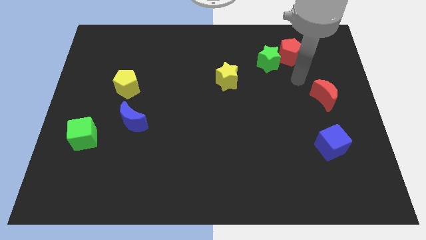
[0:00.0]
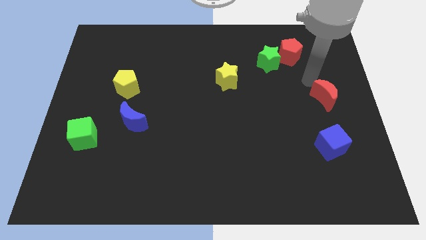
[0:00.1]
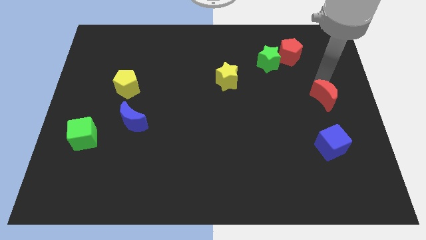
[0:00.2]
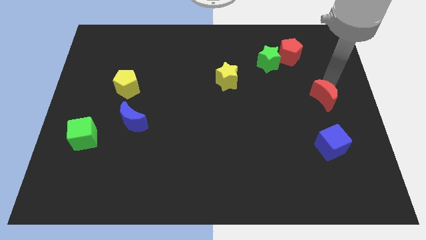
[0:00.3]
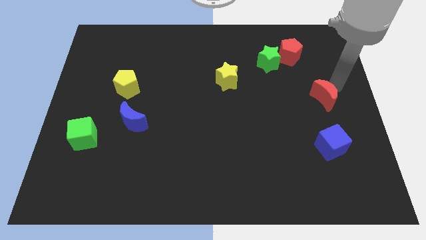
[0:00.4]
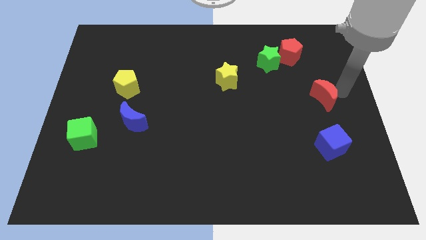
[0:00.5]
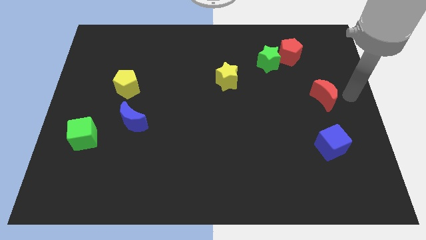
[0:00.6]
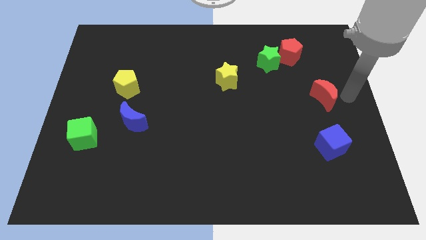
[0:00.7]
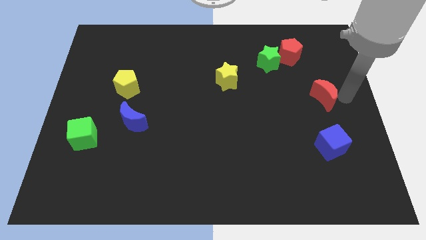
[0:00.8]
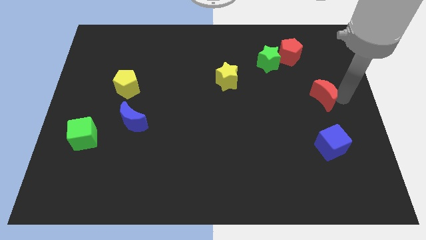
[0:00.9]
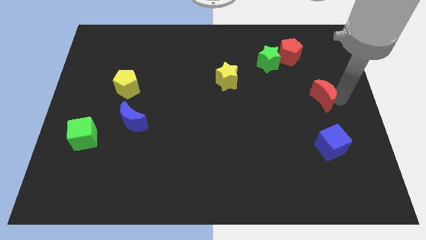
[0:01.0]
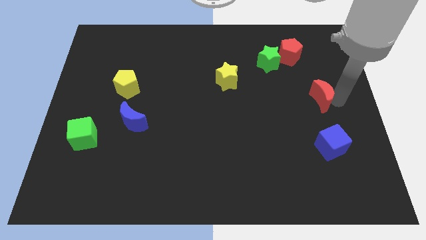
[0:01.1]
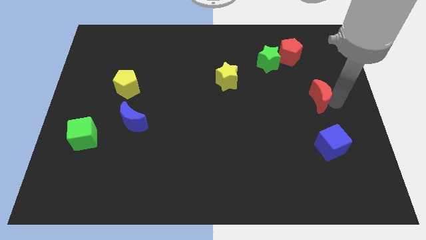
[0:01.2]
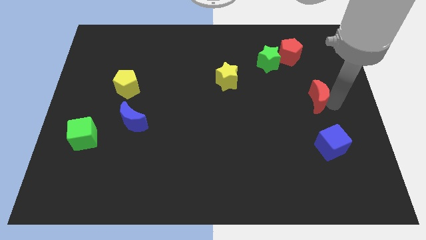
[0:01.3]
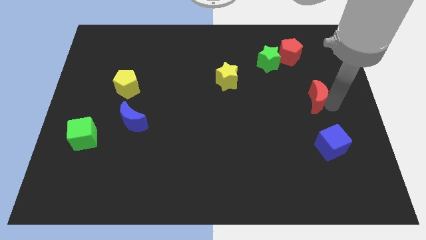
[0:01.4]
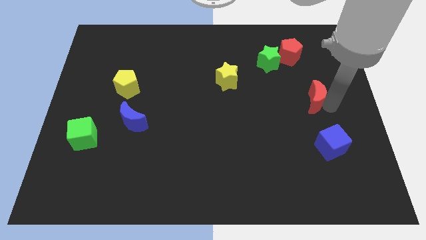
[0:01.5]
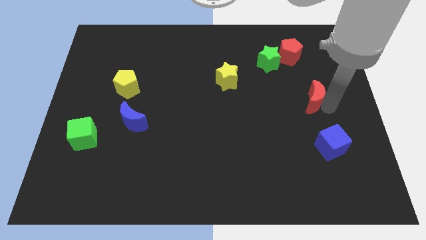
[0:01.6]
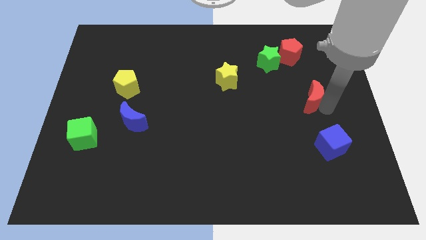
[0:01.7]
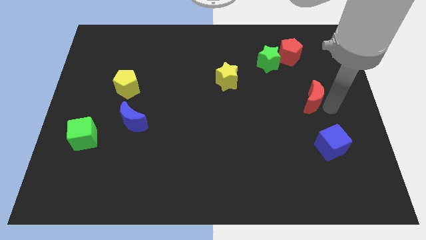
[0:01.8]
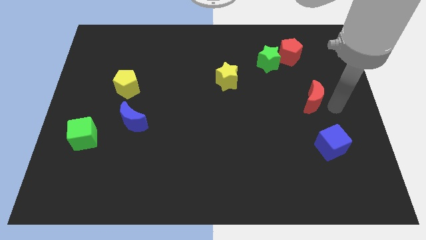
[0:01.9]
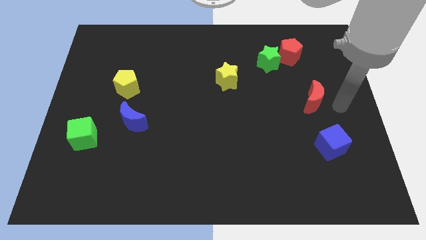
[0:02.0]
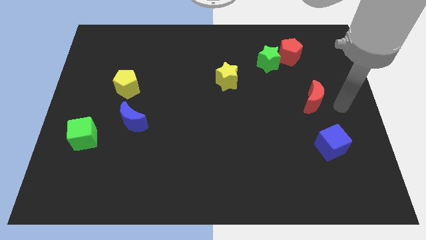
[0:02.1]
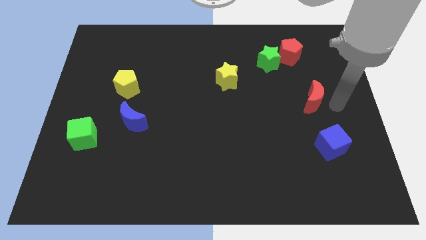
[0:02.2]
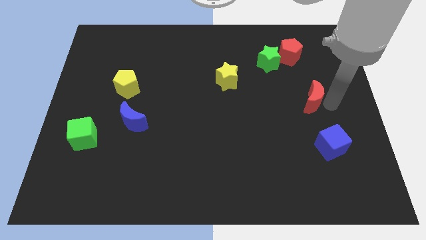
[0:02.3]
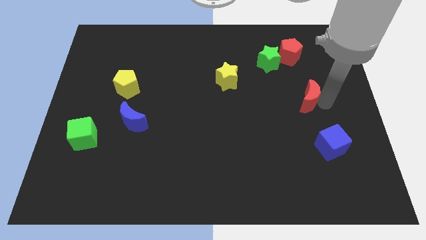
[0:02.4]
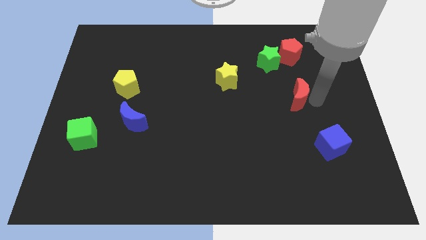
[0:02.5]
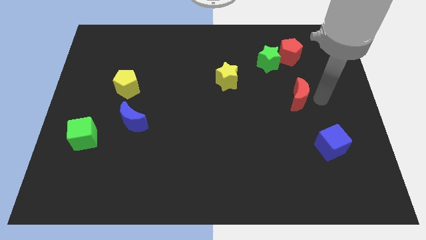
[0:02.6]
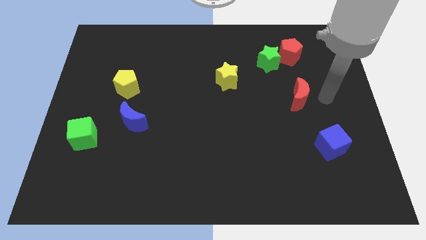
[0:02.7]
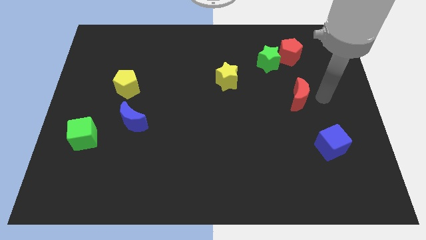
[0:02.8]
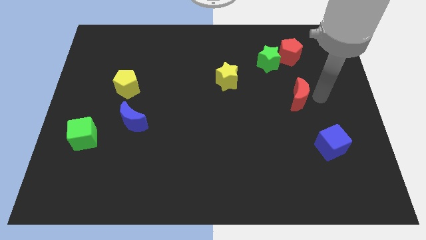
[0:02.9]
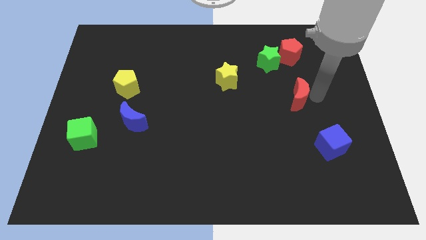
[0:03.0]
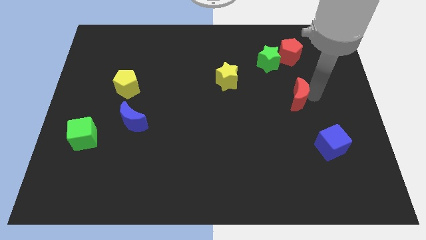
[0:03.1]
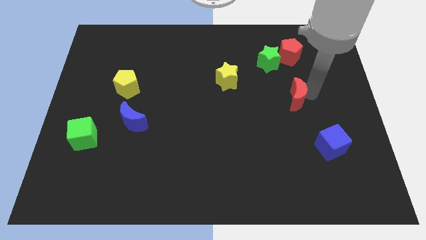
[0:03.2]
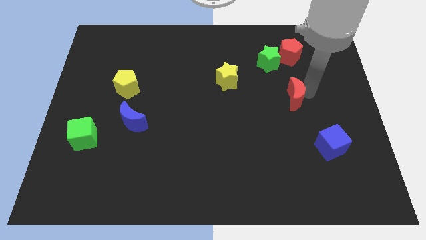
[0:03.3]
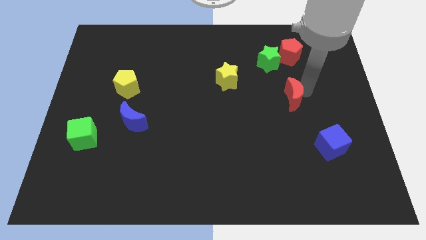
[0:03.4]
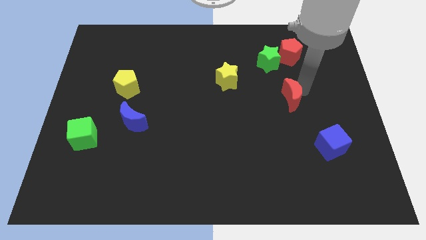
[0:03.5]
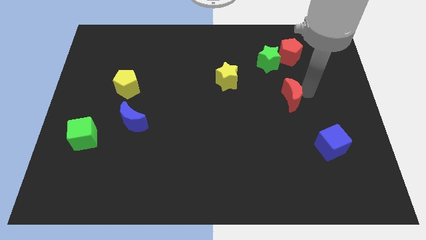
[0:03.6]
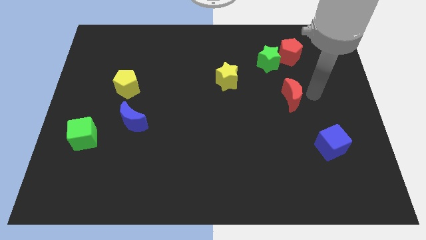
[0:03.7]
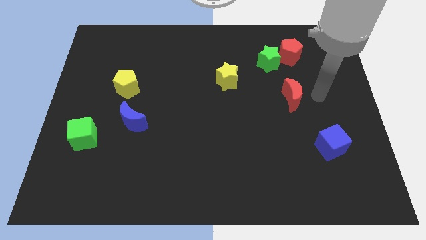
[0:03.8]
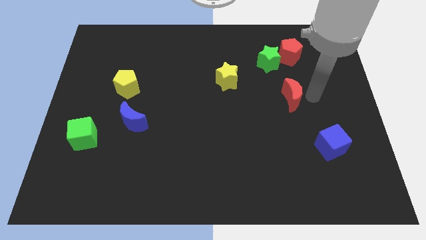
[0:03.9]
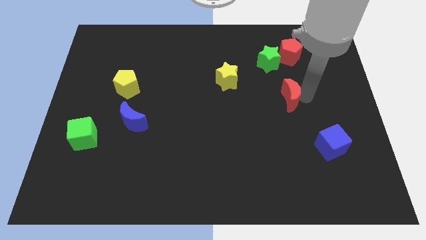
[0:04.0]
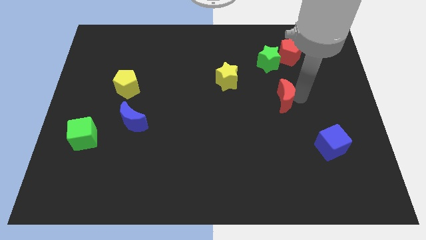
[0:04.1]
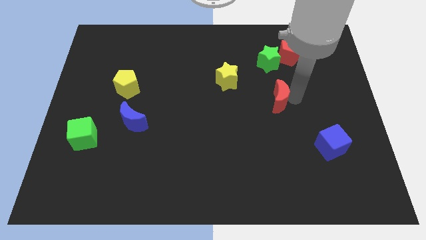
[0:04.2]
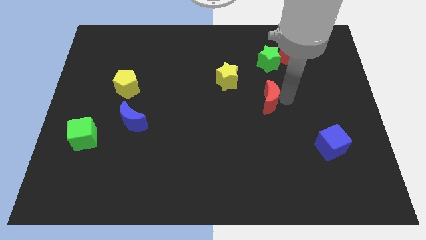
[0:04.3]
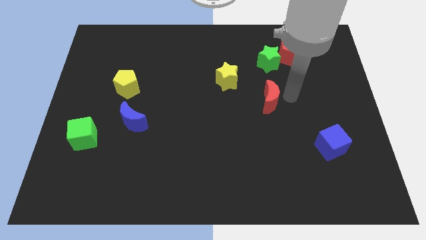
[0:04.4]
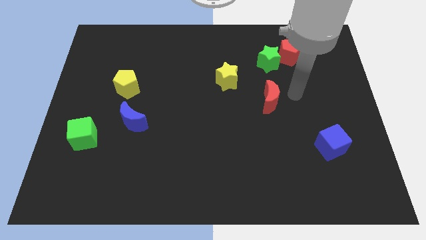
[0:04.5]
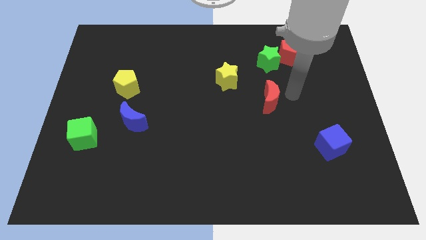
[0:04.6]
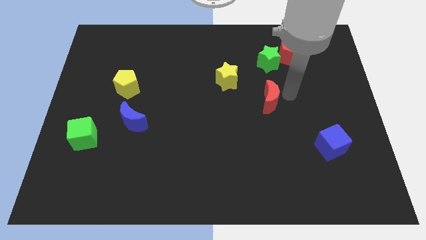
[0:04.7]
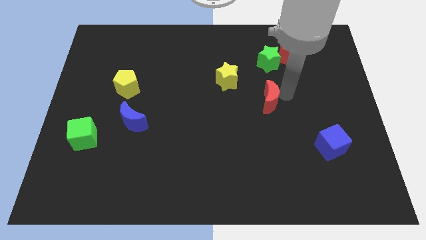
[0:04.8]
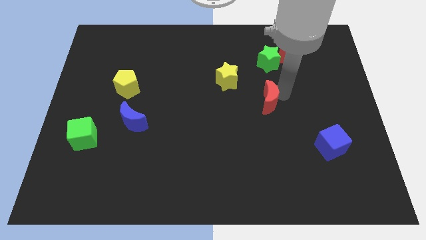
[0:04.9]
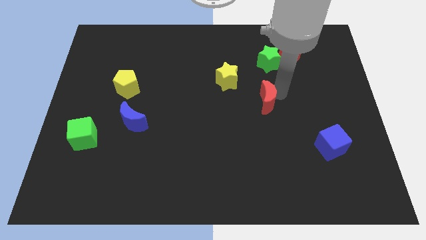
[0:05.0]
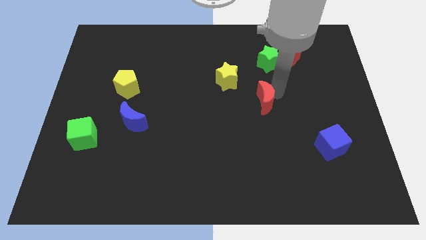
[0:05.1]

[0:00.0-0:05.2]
slide the red moon to the center

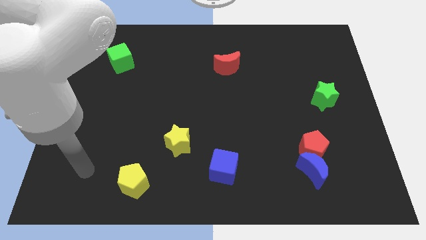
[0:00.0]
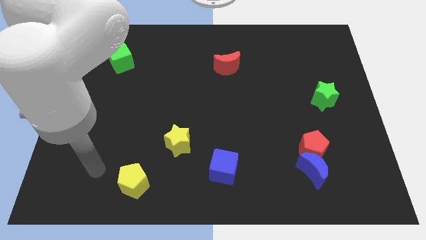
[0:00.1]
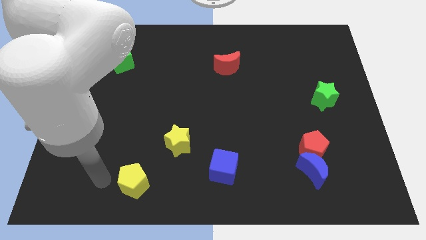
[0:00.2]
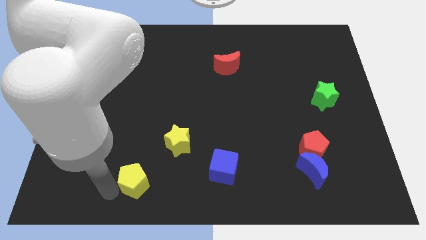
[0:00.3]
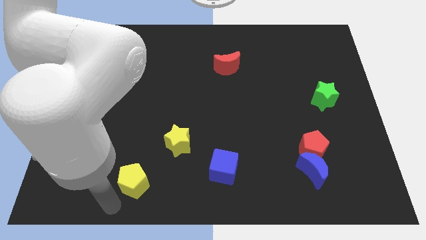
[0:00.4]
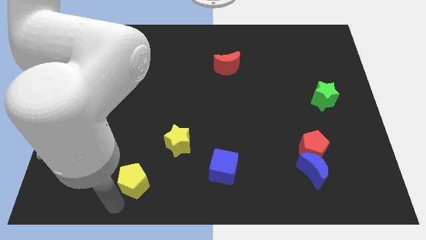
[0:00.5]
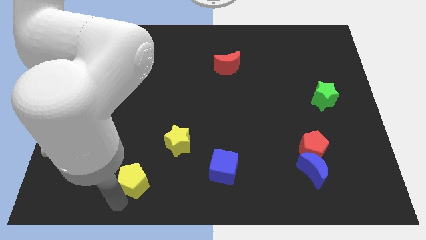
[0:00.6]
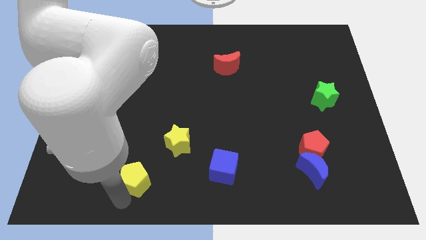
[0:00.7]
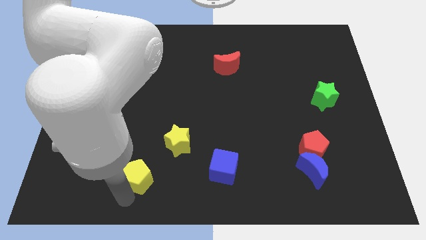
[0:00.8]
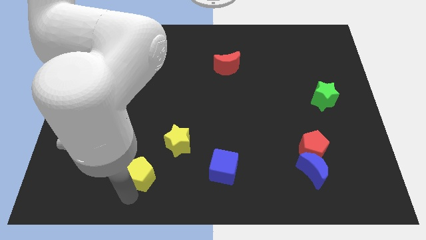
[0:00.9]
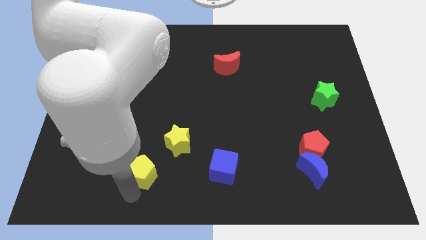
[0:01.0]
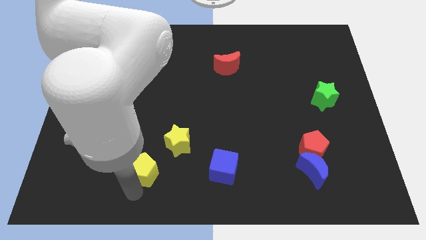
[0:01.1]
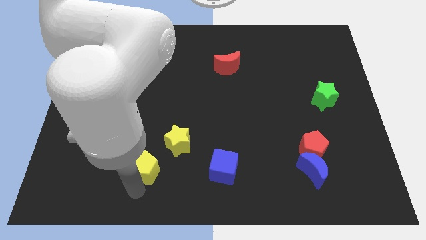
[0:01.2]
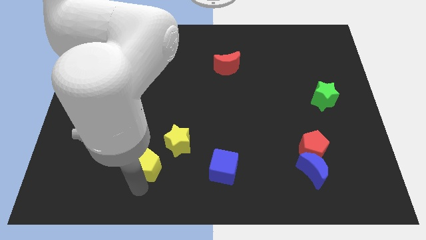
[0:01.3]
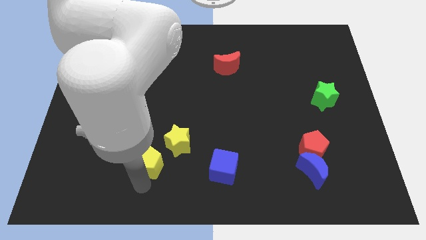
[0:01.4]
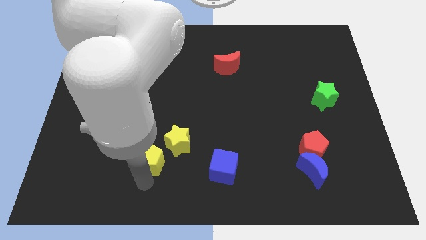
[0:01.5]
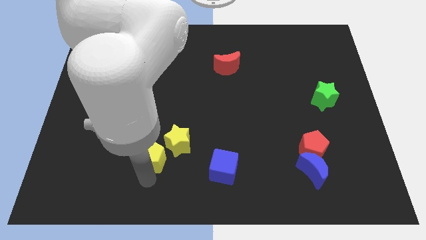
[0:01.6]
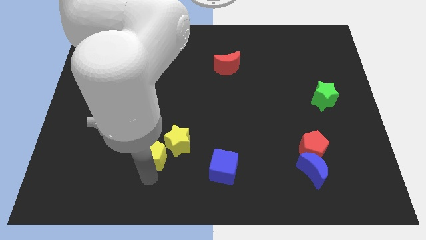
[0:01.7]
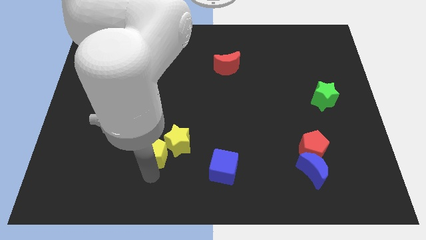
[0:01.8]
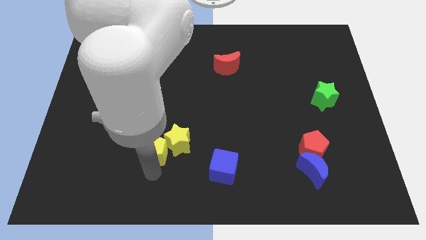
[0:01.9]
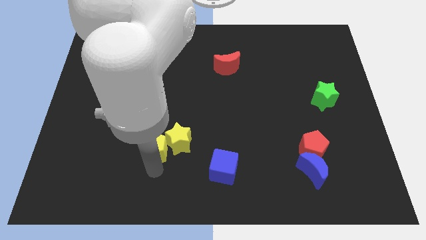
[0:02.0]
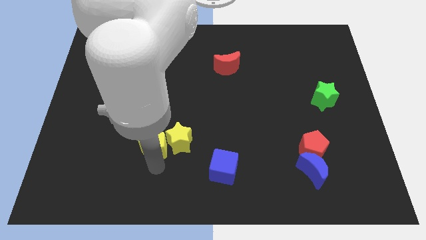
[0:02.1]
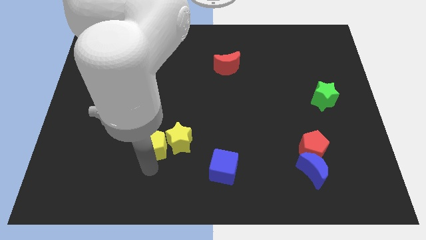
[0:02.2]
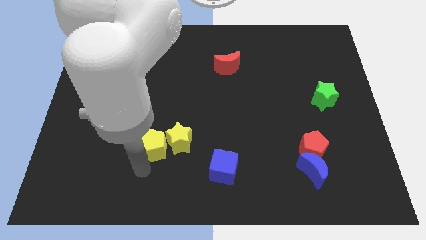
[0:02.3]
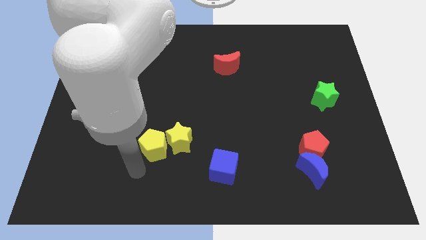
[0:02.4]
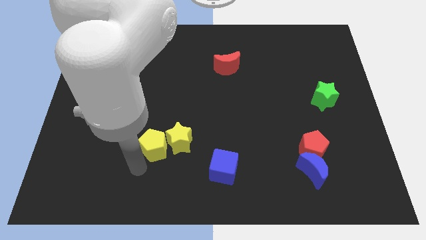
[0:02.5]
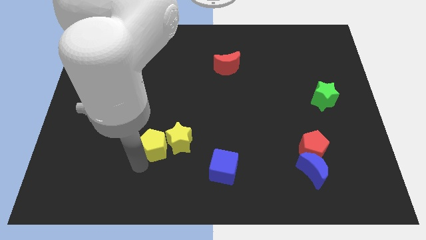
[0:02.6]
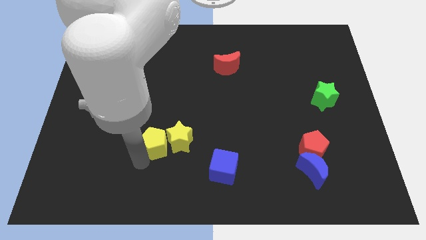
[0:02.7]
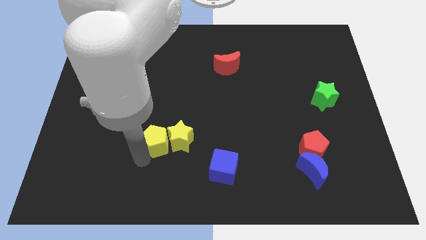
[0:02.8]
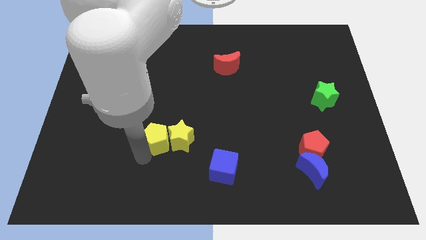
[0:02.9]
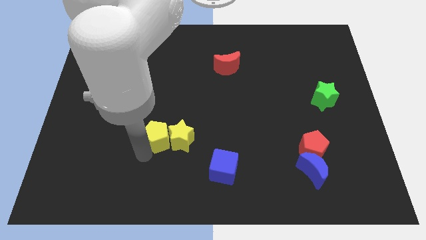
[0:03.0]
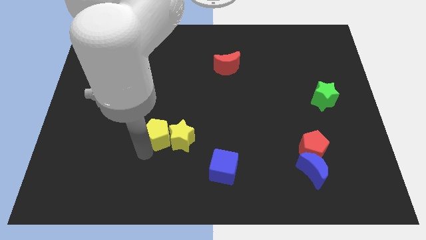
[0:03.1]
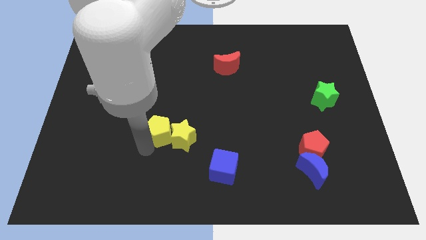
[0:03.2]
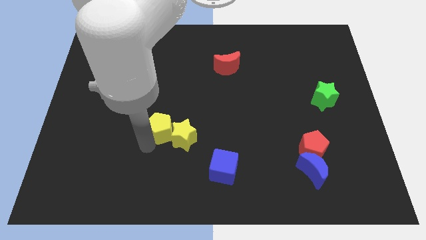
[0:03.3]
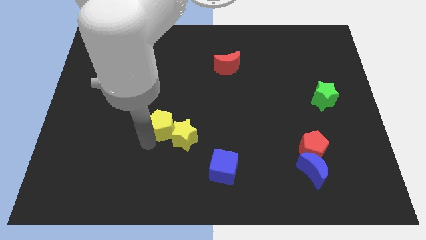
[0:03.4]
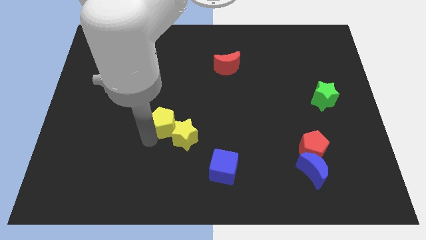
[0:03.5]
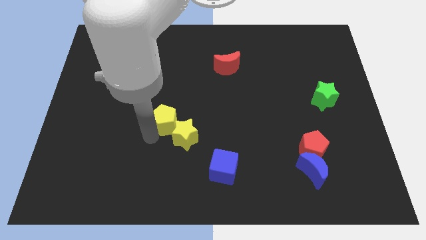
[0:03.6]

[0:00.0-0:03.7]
move the yellow pentagon to the middle of the board
